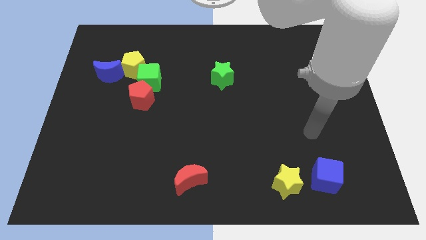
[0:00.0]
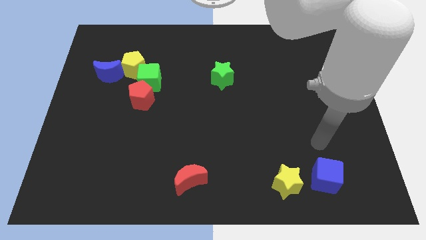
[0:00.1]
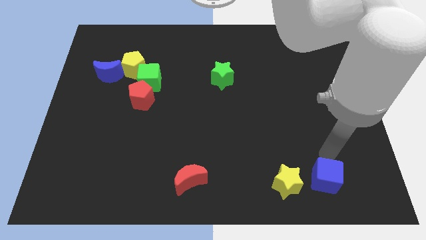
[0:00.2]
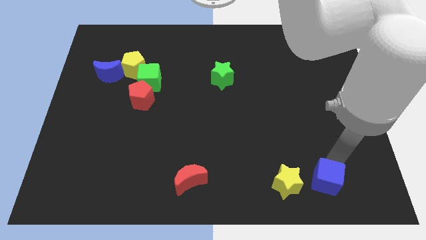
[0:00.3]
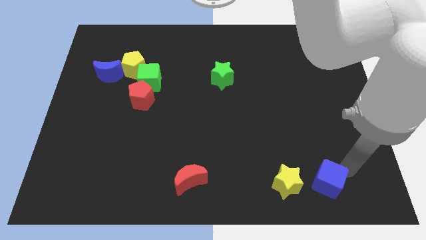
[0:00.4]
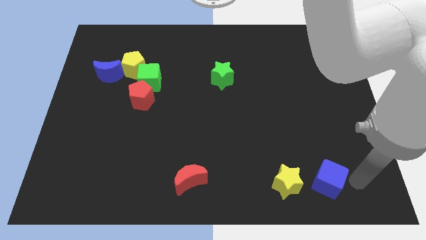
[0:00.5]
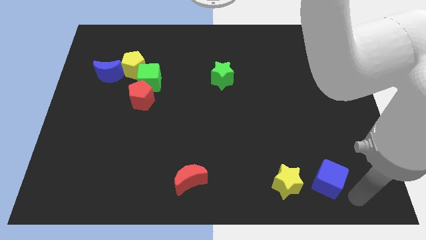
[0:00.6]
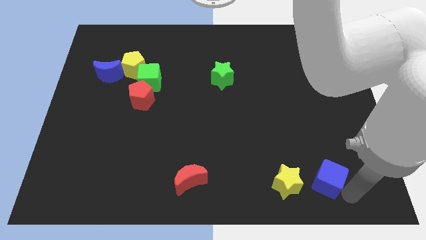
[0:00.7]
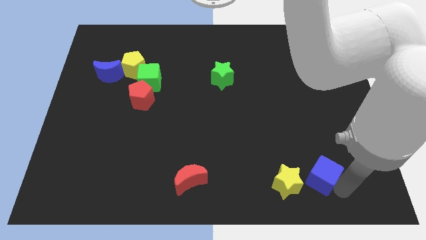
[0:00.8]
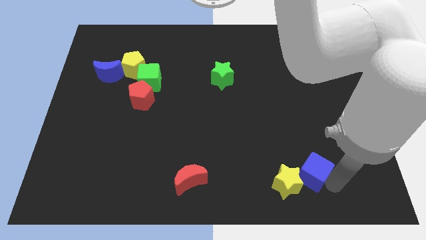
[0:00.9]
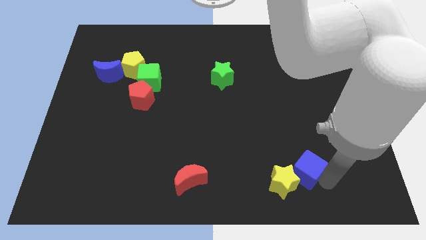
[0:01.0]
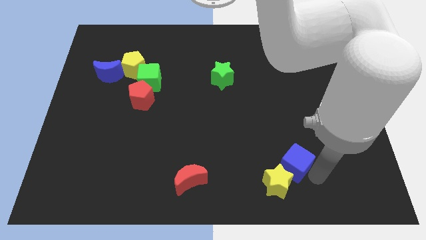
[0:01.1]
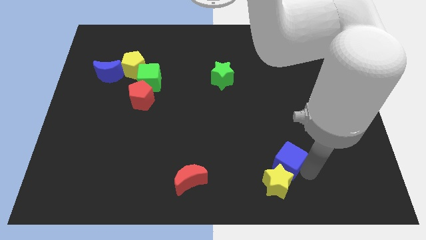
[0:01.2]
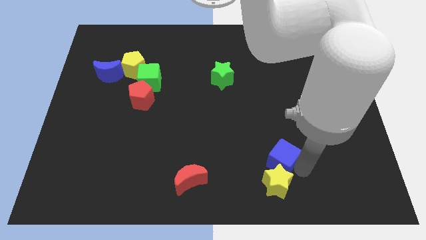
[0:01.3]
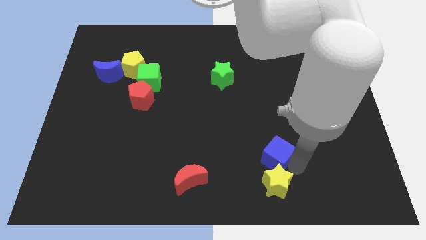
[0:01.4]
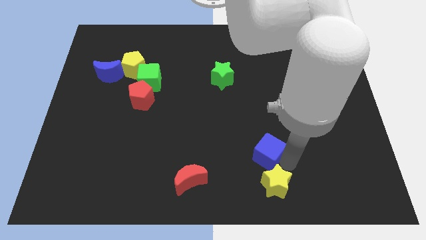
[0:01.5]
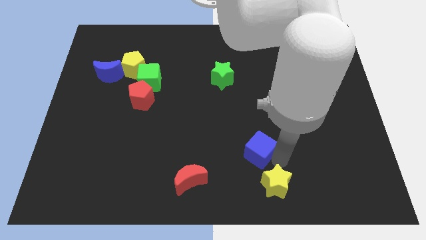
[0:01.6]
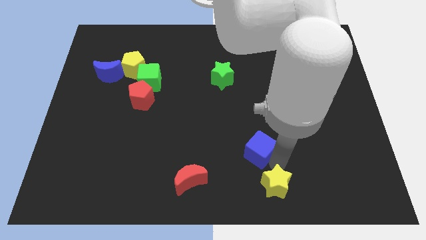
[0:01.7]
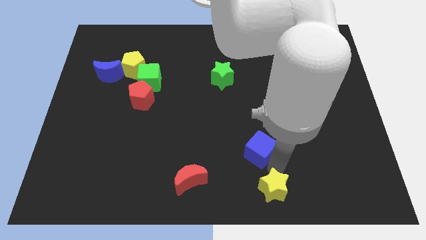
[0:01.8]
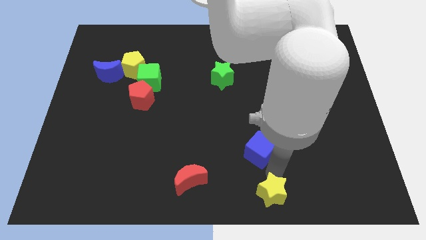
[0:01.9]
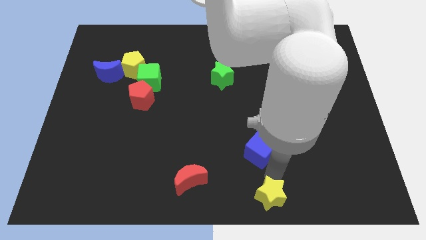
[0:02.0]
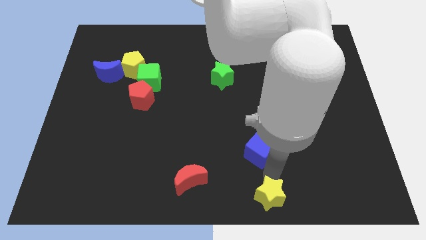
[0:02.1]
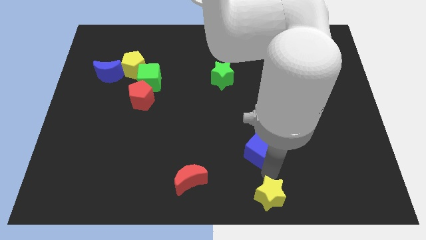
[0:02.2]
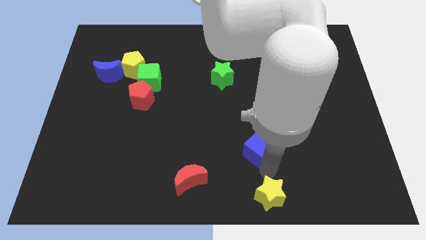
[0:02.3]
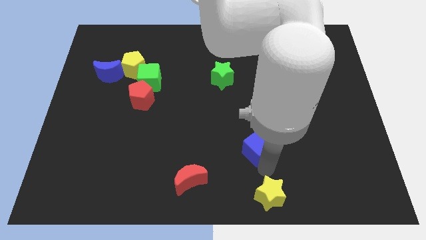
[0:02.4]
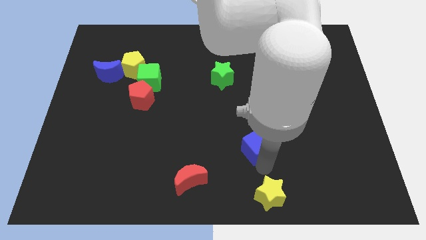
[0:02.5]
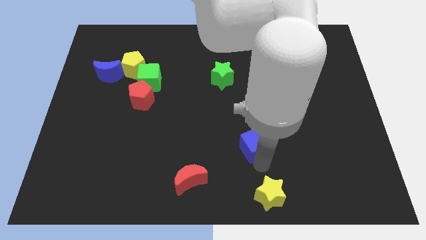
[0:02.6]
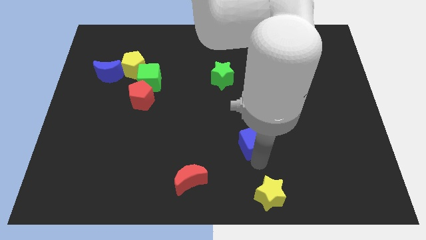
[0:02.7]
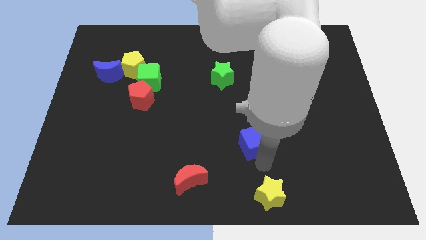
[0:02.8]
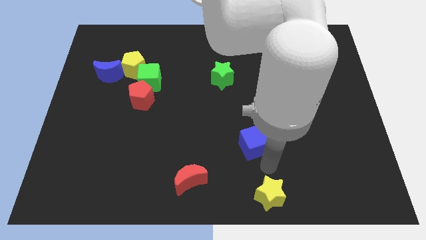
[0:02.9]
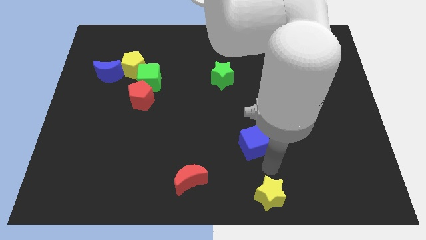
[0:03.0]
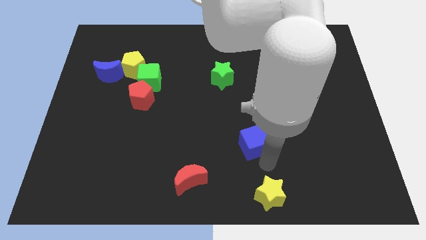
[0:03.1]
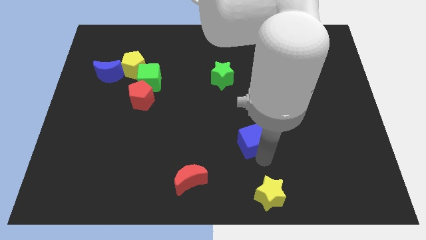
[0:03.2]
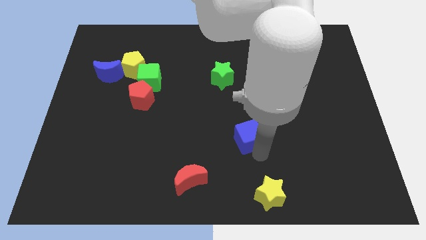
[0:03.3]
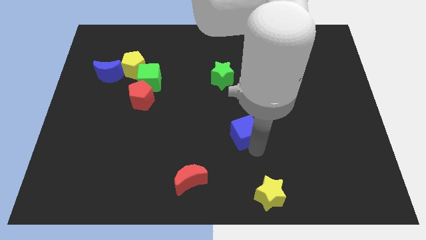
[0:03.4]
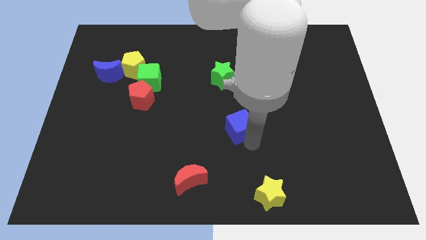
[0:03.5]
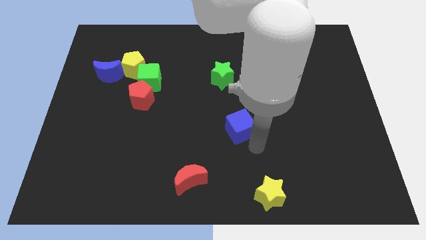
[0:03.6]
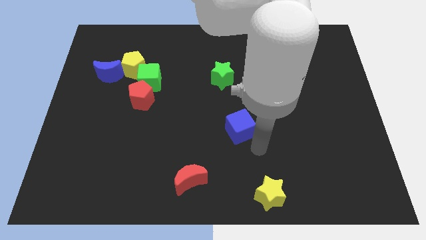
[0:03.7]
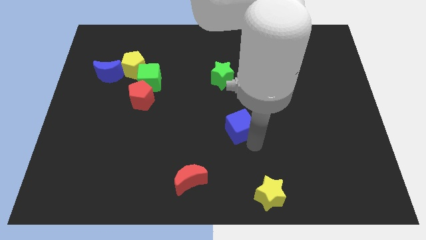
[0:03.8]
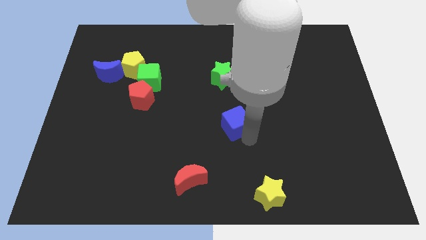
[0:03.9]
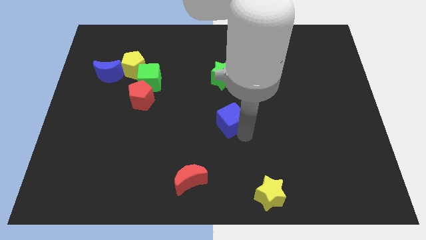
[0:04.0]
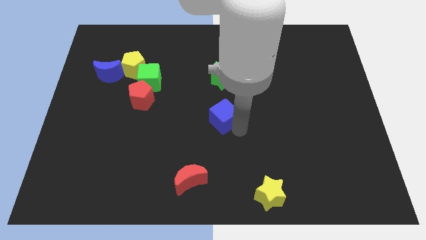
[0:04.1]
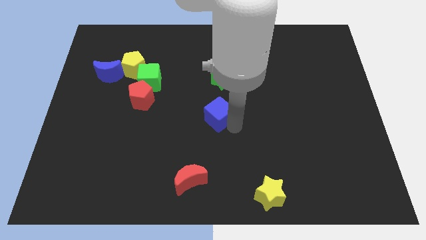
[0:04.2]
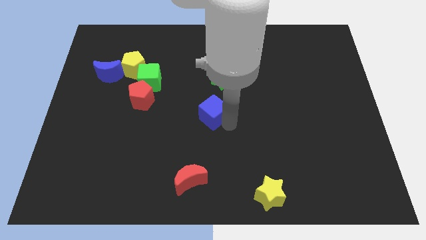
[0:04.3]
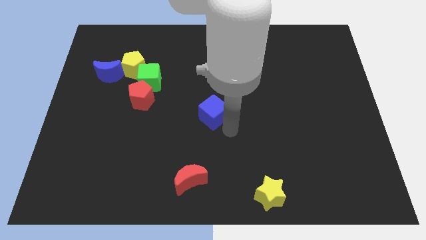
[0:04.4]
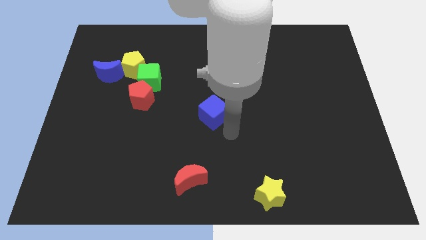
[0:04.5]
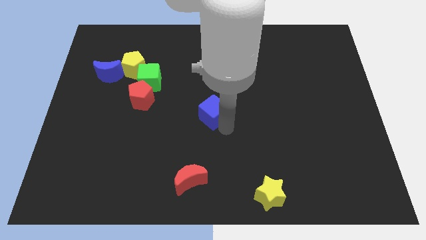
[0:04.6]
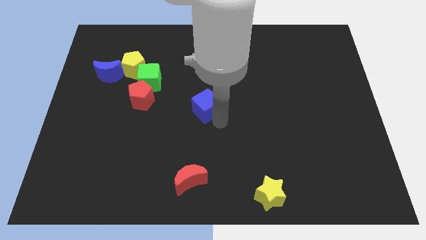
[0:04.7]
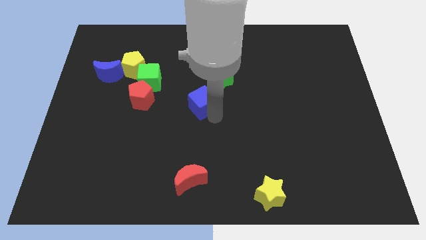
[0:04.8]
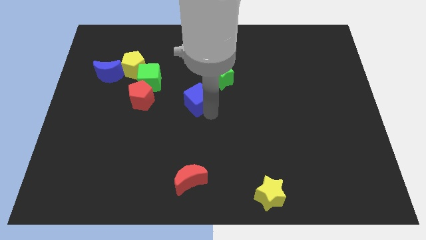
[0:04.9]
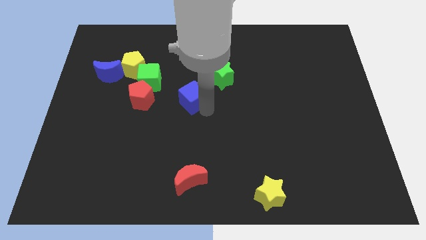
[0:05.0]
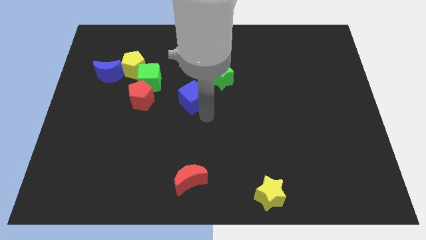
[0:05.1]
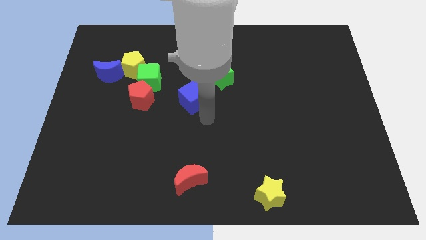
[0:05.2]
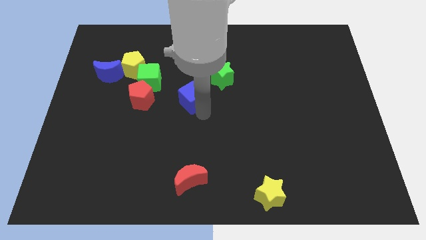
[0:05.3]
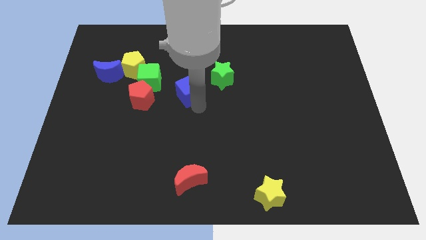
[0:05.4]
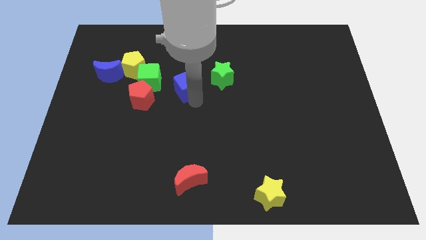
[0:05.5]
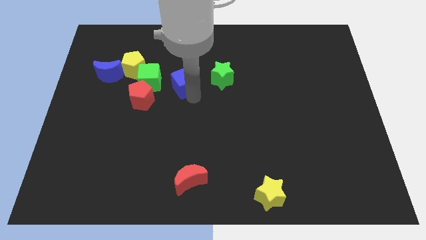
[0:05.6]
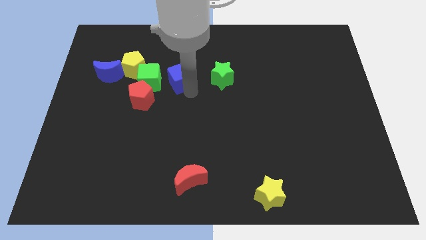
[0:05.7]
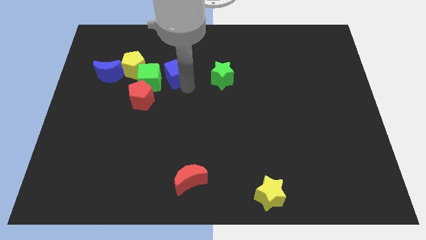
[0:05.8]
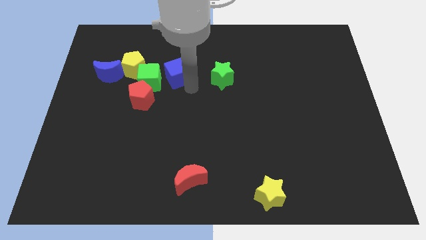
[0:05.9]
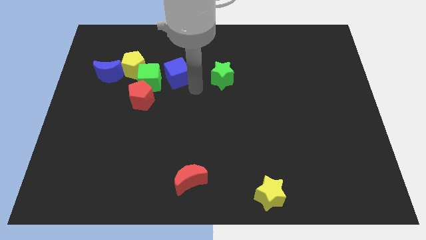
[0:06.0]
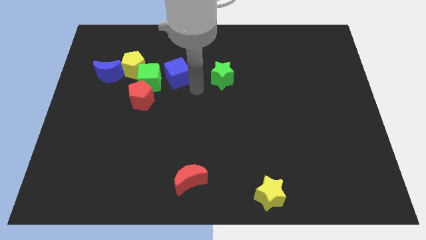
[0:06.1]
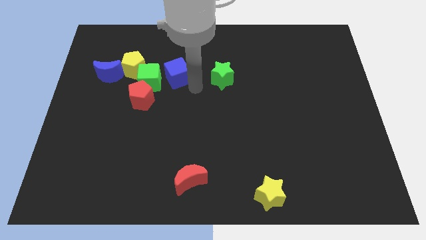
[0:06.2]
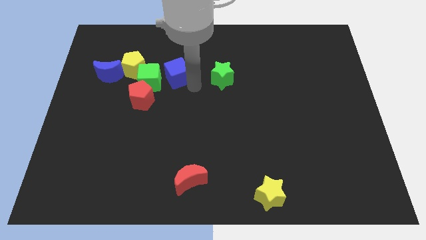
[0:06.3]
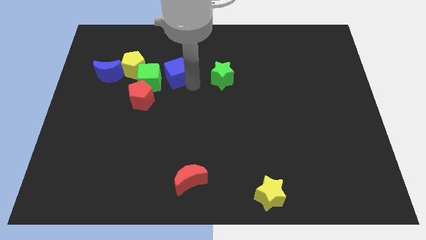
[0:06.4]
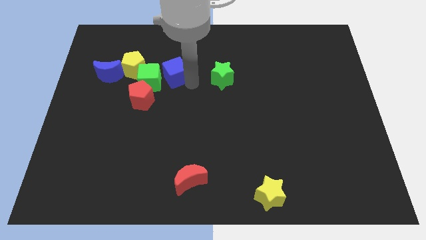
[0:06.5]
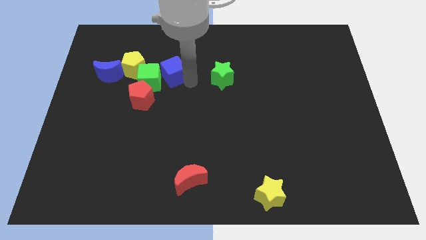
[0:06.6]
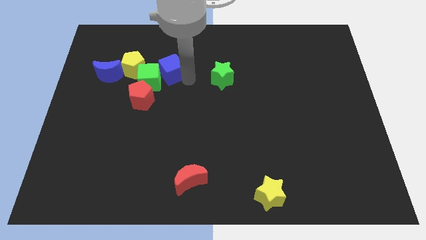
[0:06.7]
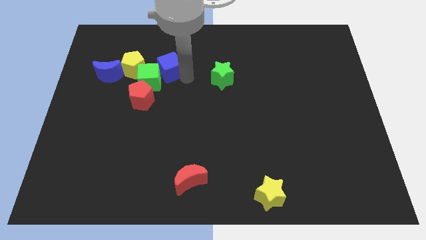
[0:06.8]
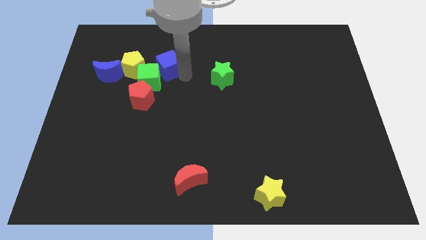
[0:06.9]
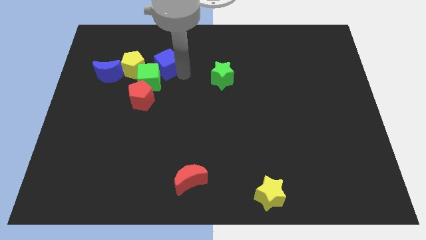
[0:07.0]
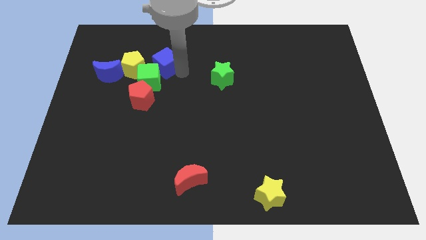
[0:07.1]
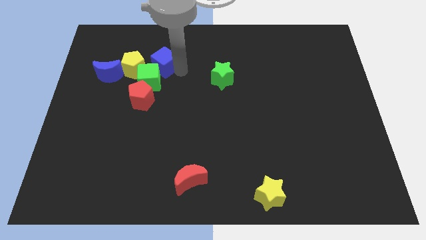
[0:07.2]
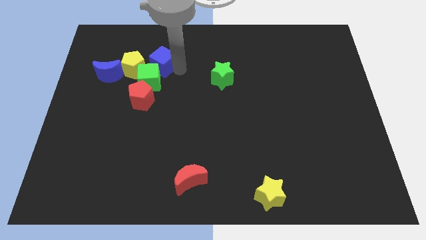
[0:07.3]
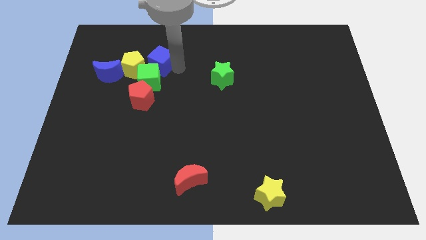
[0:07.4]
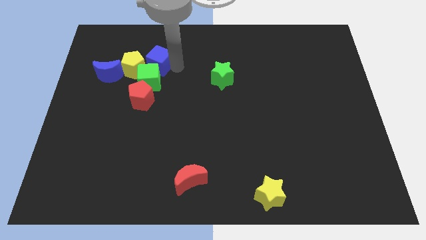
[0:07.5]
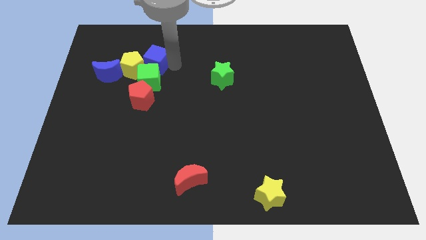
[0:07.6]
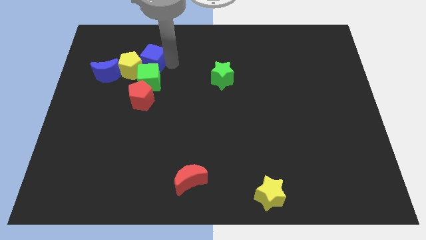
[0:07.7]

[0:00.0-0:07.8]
put the blue cube to the top left of the green cube
